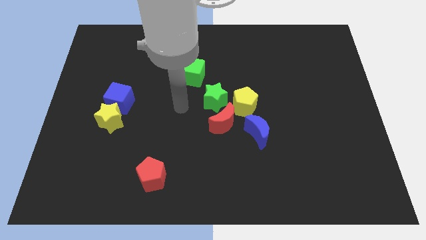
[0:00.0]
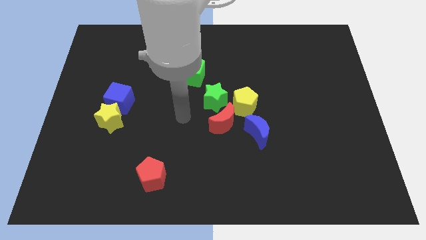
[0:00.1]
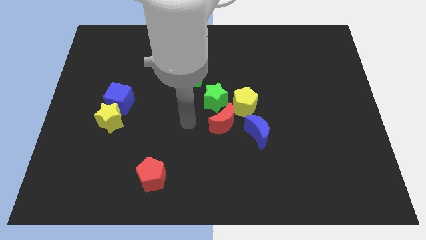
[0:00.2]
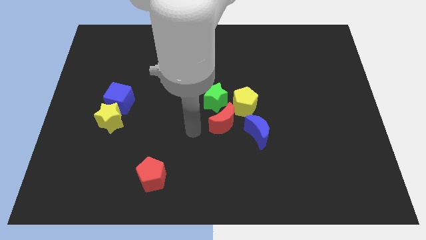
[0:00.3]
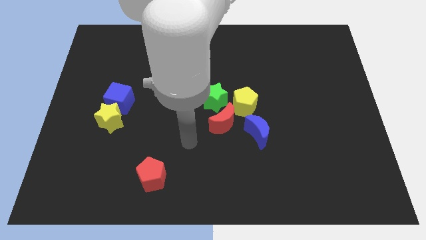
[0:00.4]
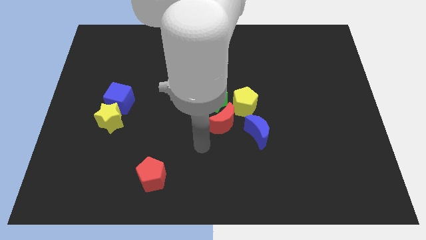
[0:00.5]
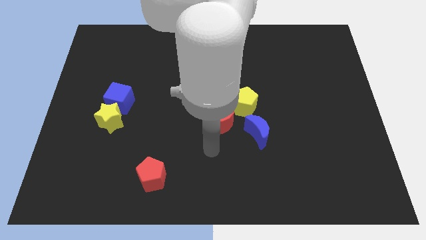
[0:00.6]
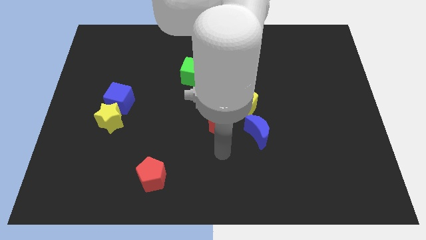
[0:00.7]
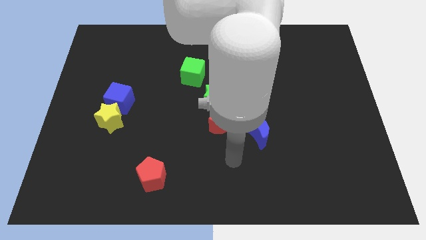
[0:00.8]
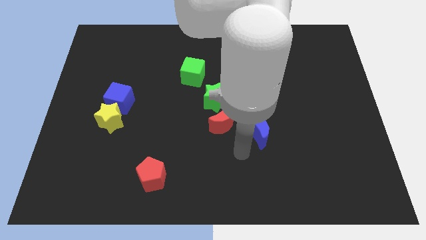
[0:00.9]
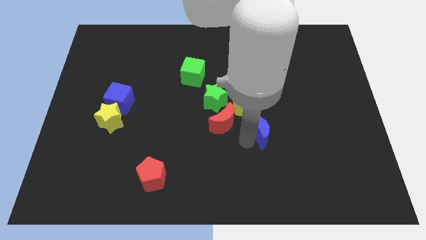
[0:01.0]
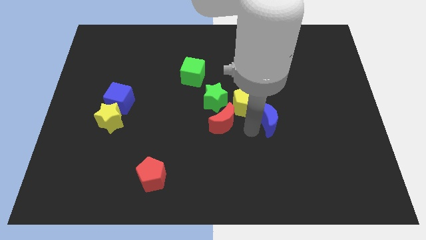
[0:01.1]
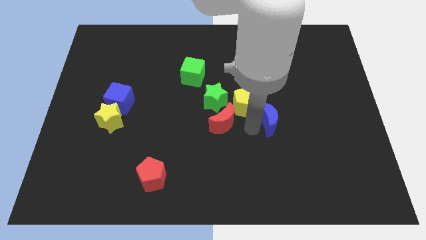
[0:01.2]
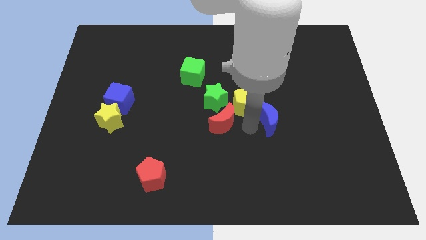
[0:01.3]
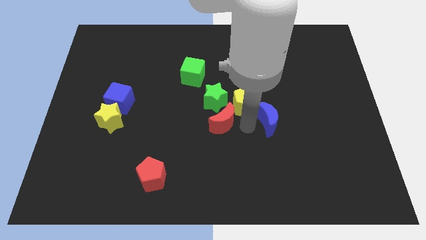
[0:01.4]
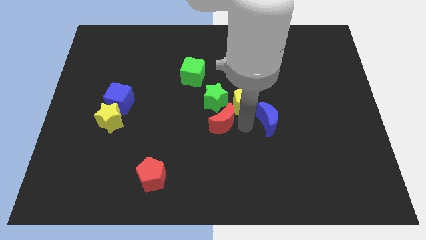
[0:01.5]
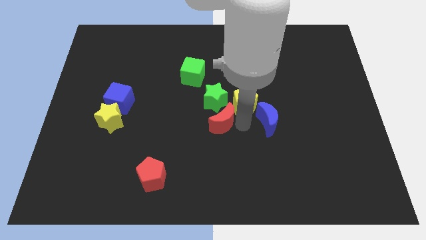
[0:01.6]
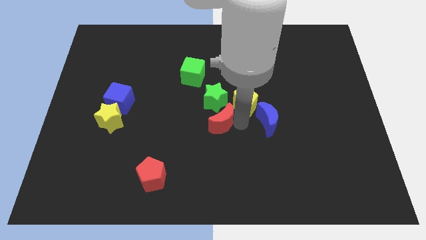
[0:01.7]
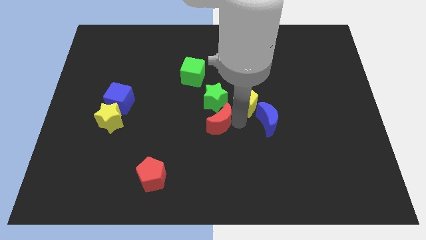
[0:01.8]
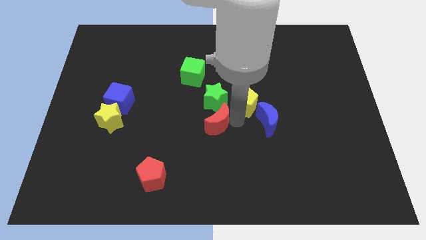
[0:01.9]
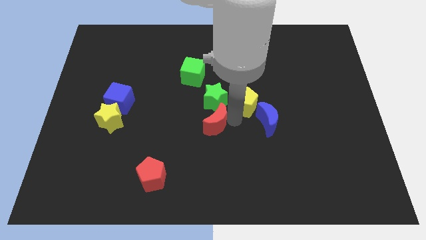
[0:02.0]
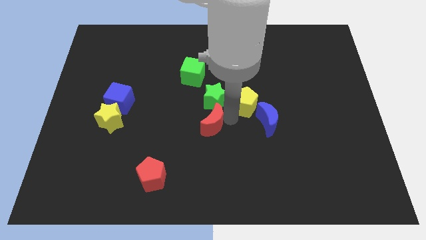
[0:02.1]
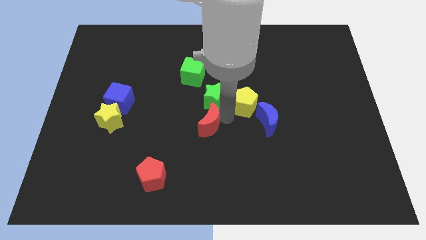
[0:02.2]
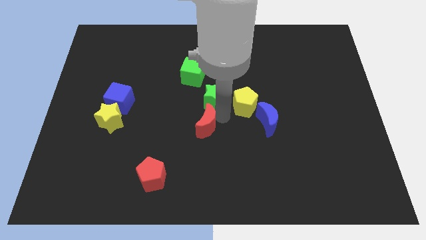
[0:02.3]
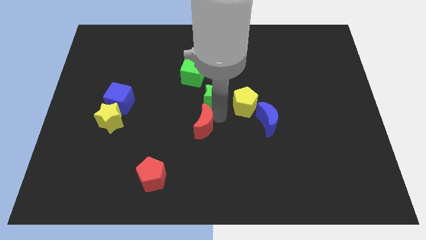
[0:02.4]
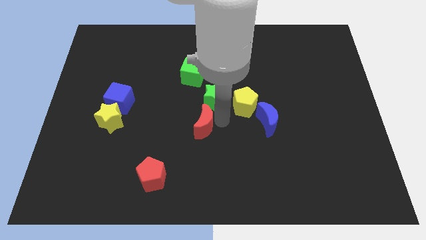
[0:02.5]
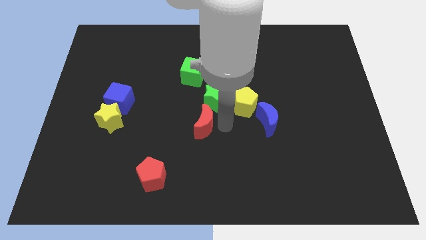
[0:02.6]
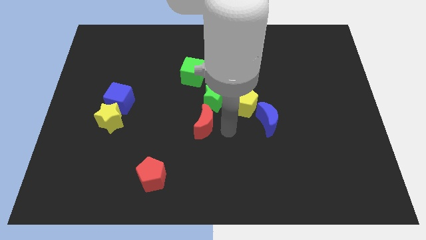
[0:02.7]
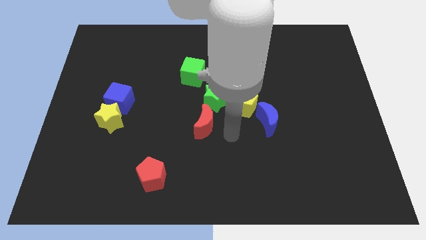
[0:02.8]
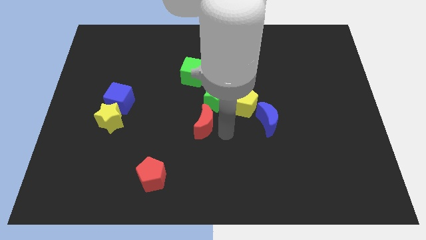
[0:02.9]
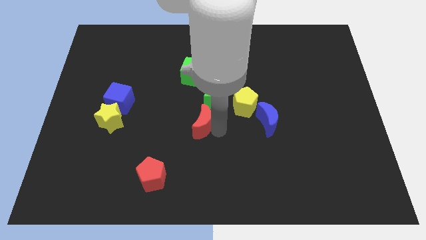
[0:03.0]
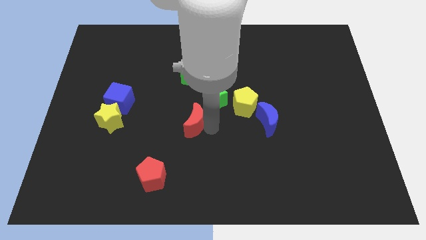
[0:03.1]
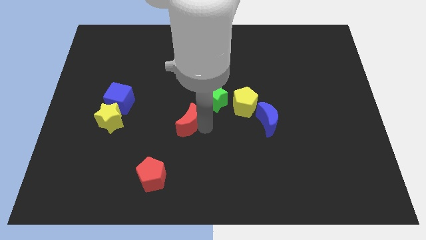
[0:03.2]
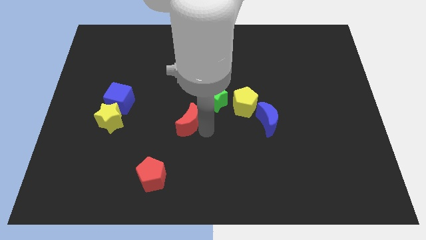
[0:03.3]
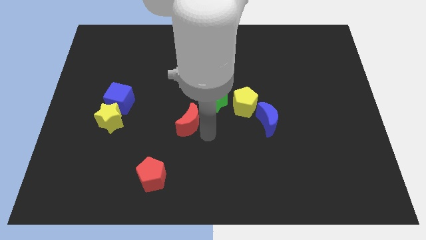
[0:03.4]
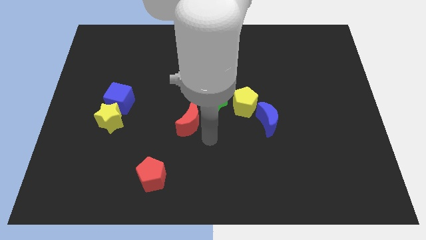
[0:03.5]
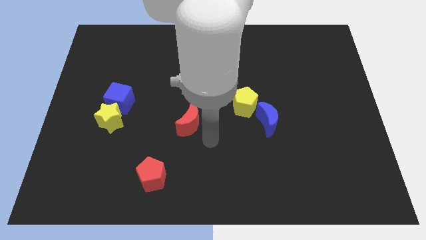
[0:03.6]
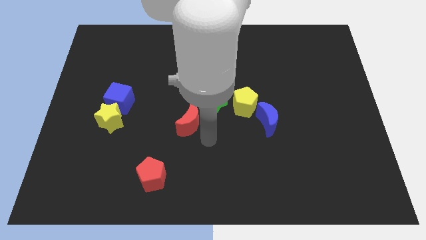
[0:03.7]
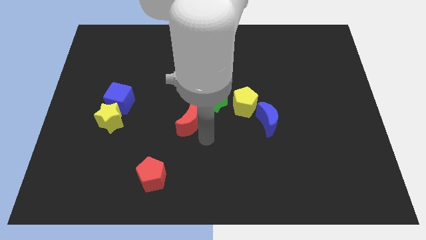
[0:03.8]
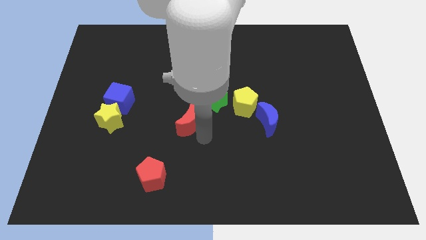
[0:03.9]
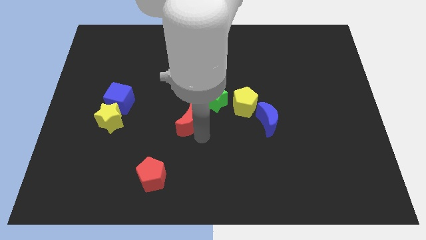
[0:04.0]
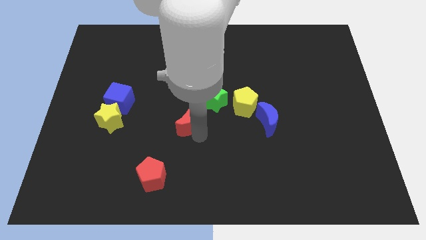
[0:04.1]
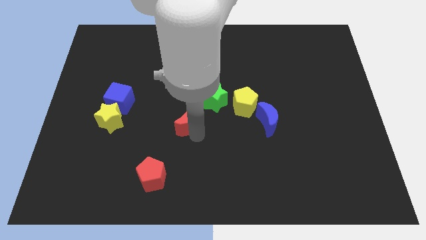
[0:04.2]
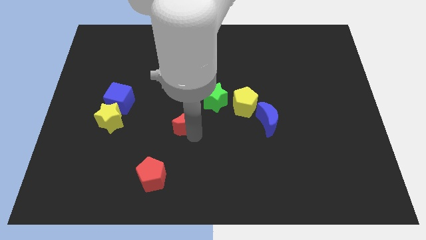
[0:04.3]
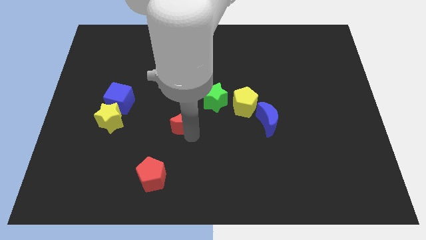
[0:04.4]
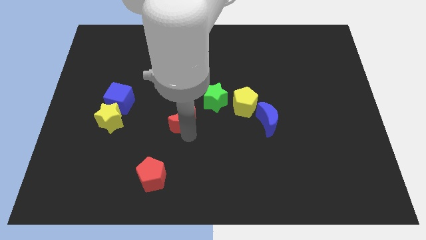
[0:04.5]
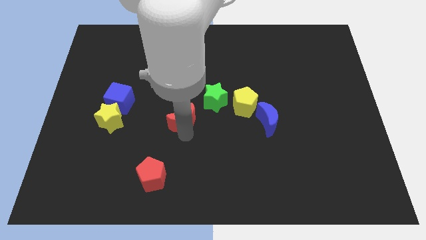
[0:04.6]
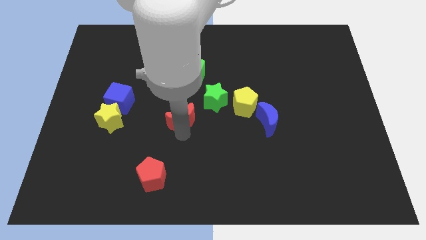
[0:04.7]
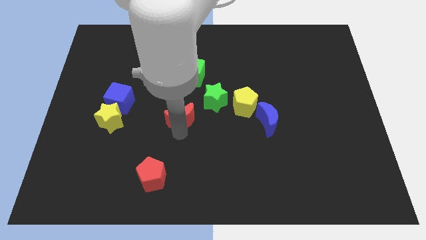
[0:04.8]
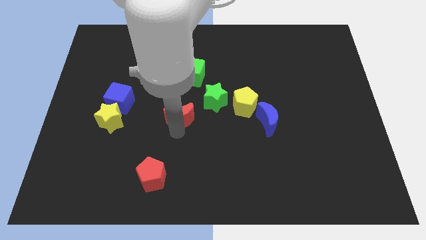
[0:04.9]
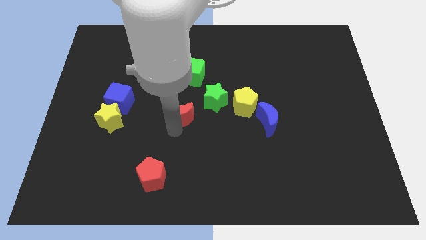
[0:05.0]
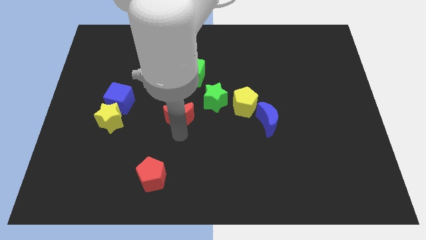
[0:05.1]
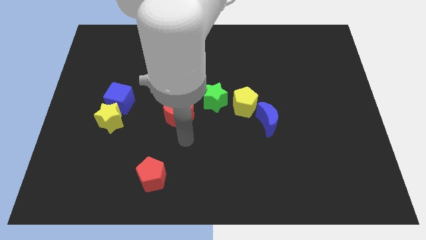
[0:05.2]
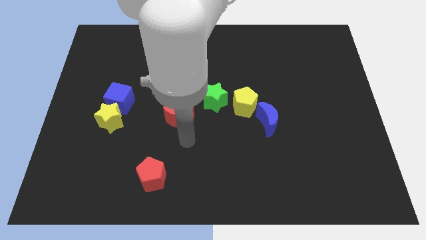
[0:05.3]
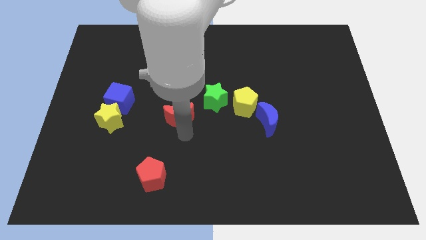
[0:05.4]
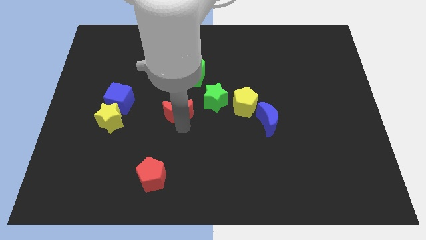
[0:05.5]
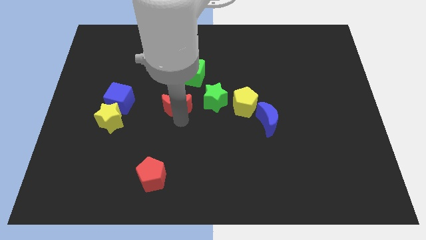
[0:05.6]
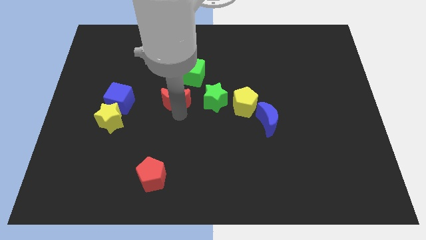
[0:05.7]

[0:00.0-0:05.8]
put the red moon to the bottom left of the green cube

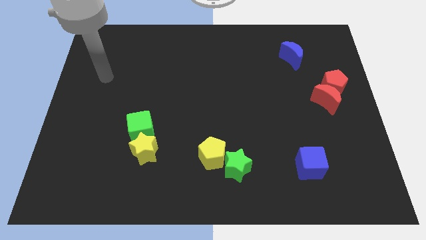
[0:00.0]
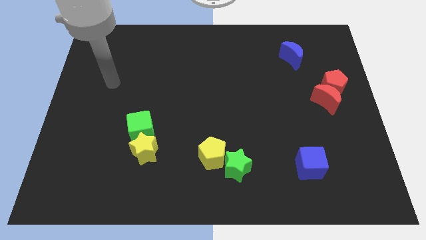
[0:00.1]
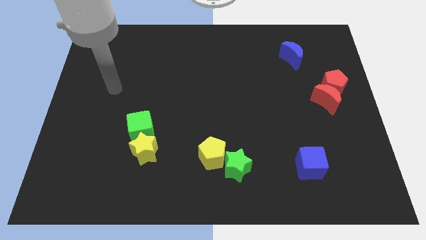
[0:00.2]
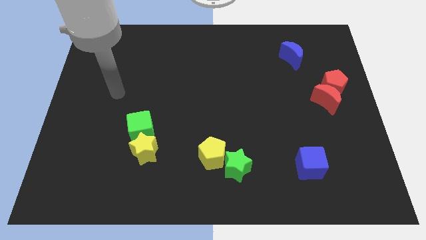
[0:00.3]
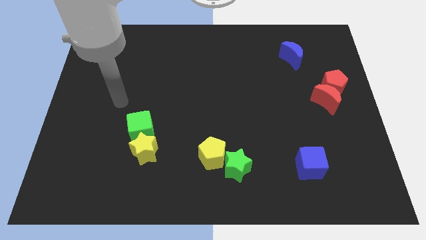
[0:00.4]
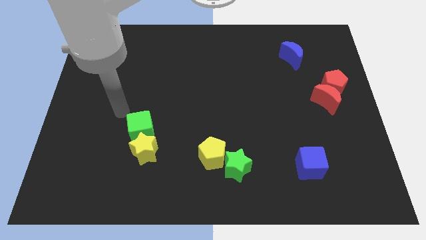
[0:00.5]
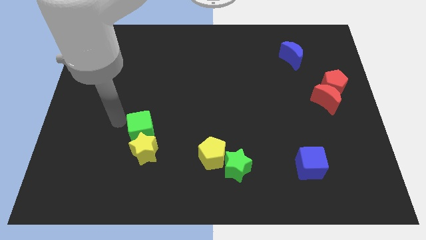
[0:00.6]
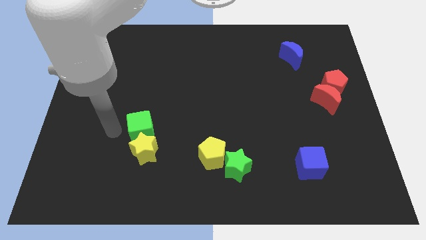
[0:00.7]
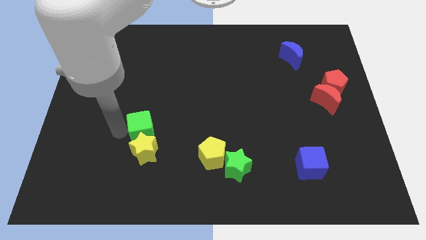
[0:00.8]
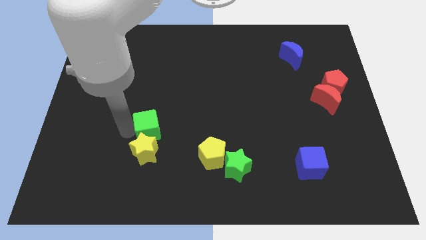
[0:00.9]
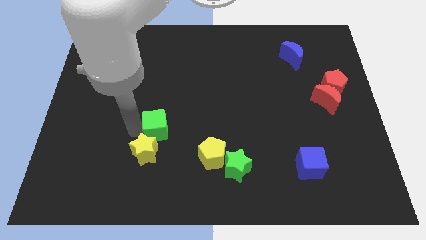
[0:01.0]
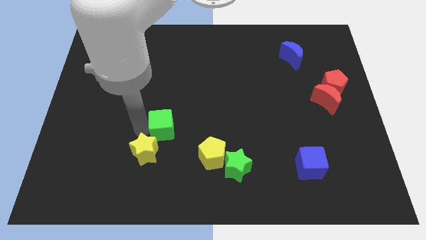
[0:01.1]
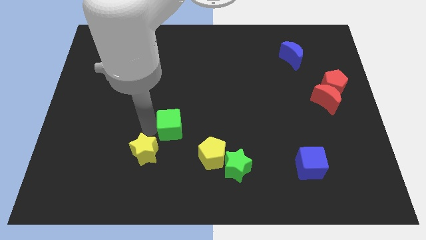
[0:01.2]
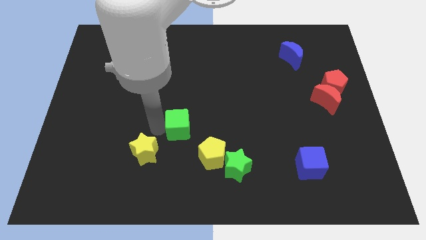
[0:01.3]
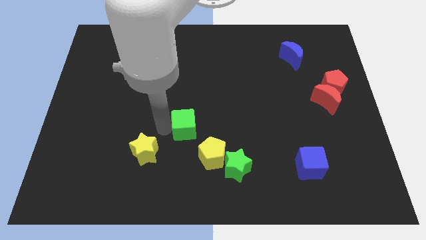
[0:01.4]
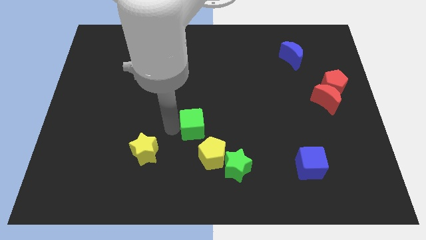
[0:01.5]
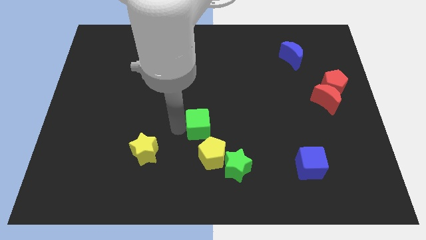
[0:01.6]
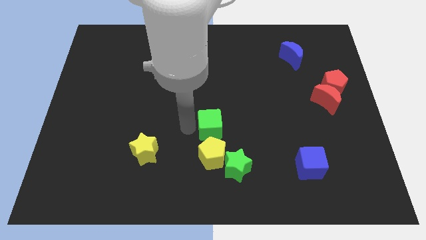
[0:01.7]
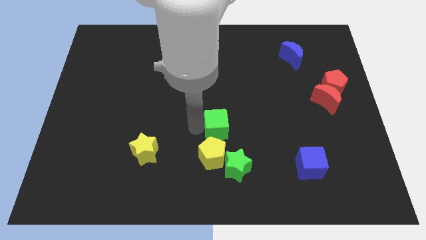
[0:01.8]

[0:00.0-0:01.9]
move the green cube above the green star
